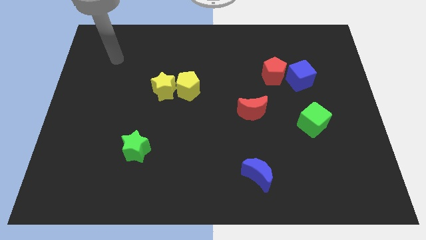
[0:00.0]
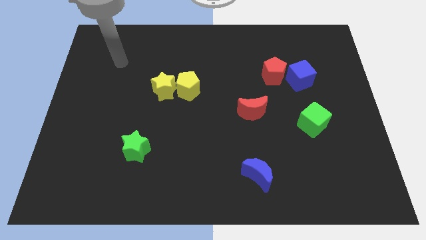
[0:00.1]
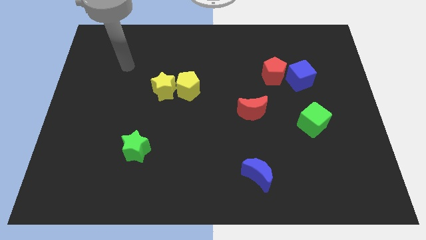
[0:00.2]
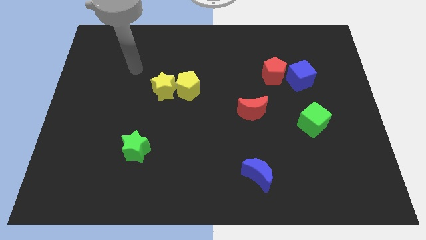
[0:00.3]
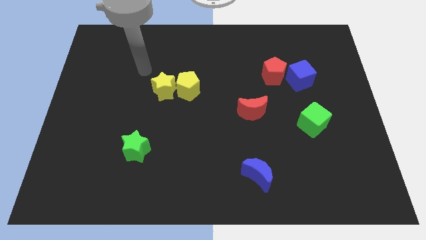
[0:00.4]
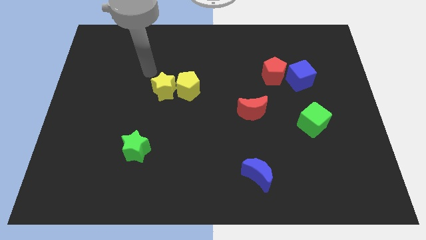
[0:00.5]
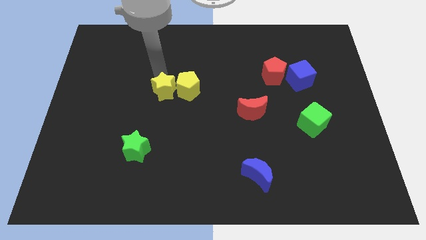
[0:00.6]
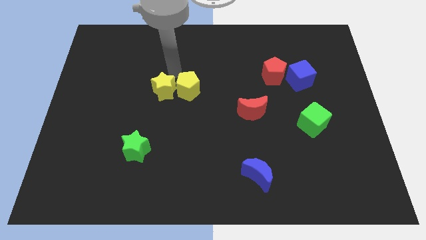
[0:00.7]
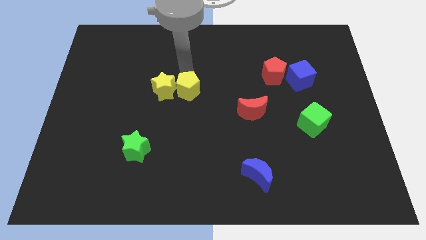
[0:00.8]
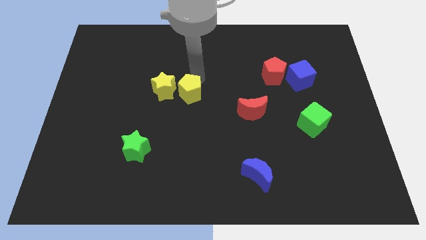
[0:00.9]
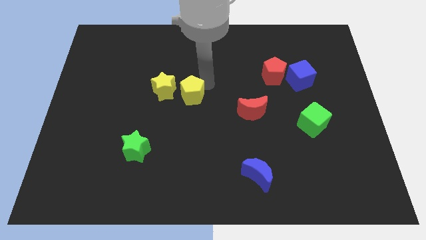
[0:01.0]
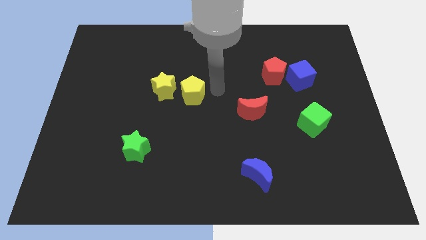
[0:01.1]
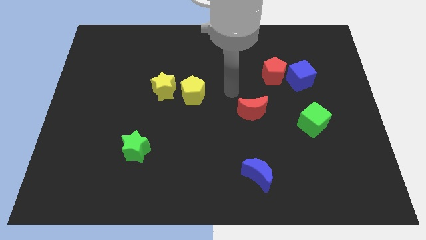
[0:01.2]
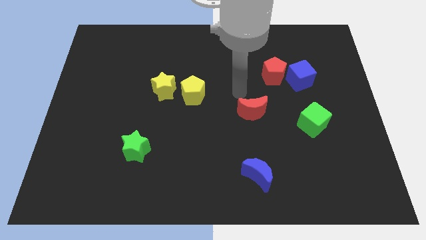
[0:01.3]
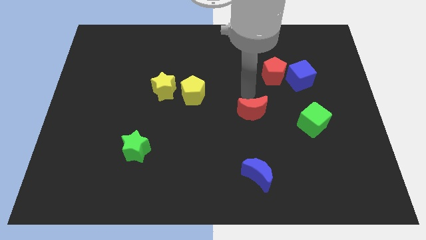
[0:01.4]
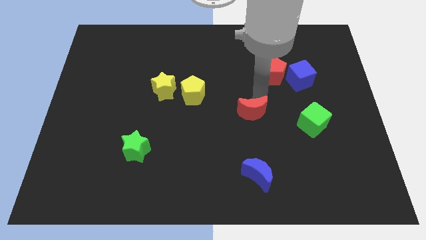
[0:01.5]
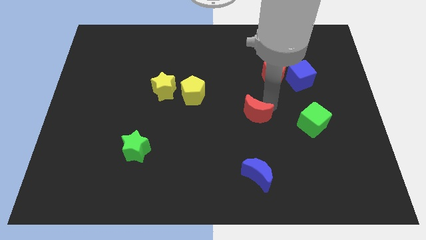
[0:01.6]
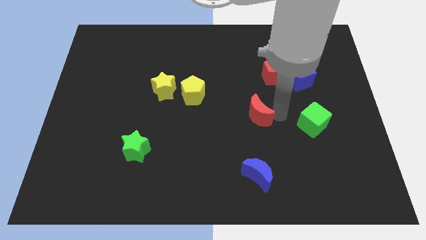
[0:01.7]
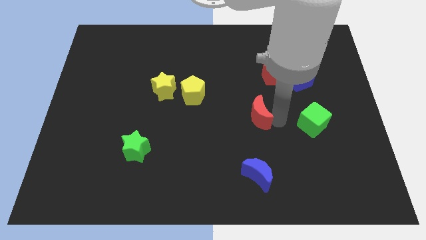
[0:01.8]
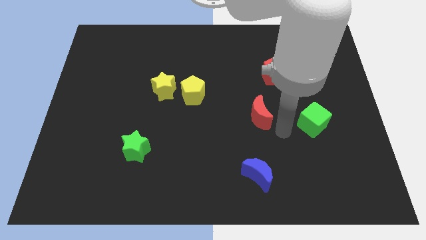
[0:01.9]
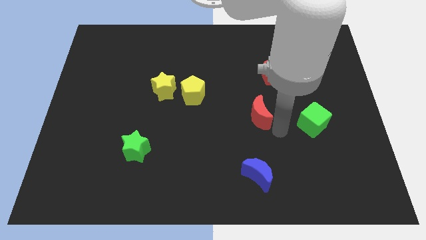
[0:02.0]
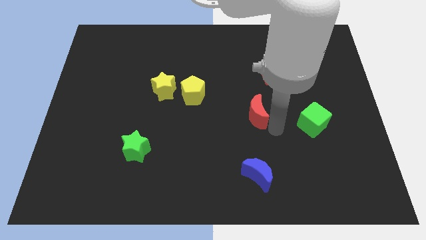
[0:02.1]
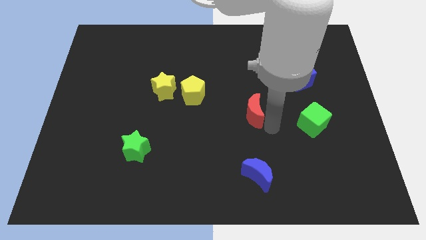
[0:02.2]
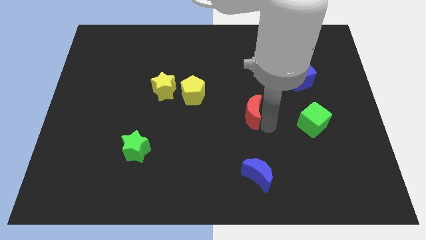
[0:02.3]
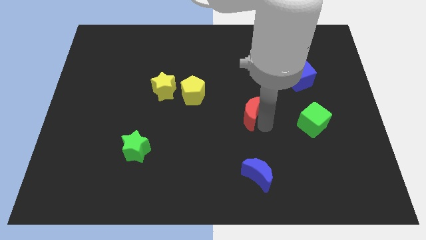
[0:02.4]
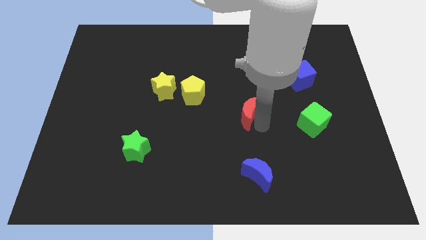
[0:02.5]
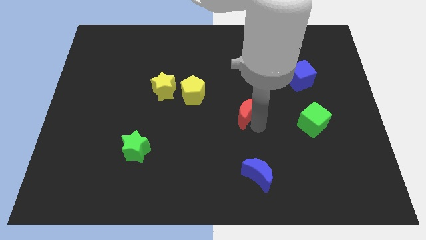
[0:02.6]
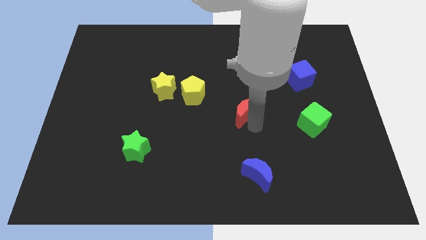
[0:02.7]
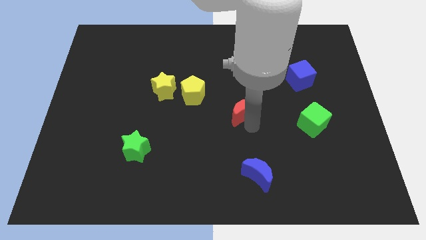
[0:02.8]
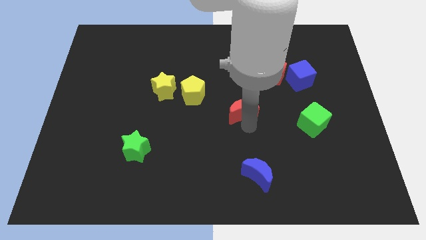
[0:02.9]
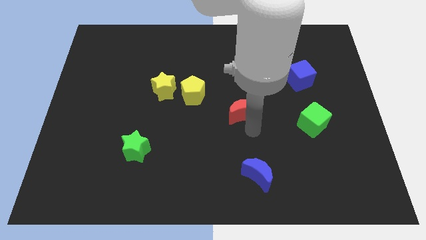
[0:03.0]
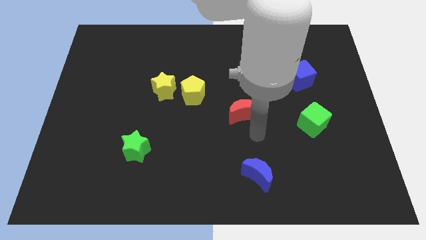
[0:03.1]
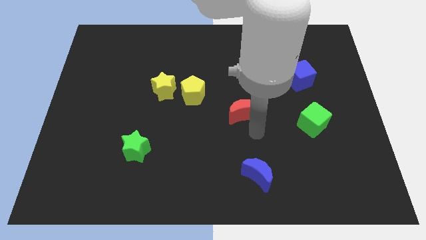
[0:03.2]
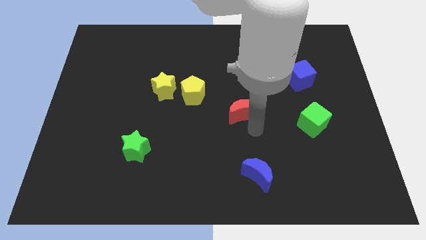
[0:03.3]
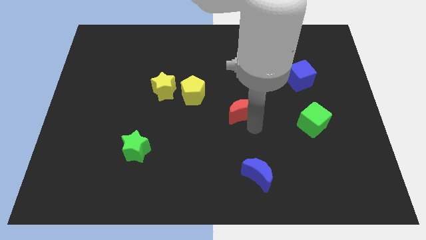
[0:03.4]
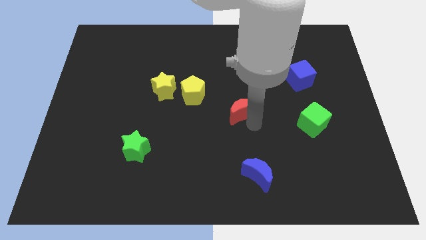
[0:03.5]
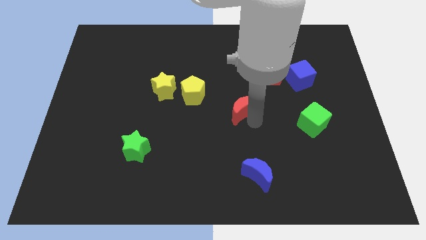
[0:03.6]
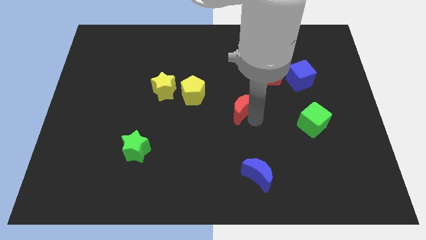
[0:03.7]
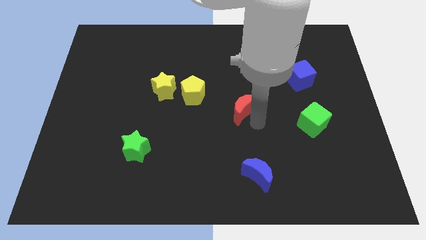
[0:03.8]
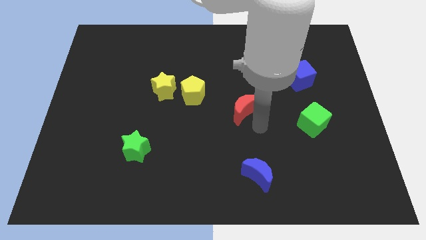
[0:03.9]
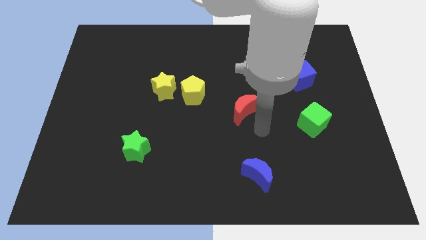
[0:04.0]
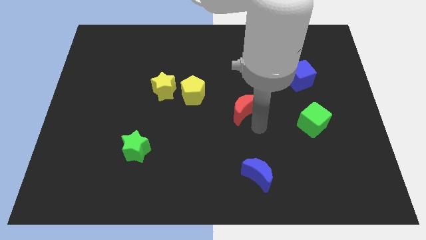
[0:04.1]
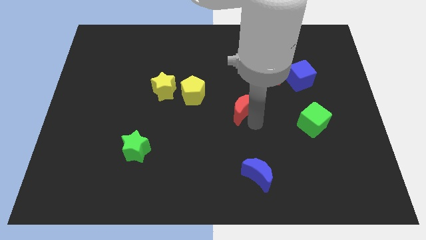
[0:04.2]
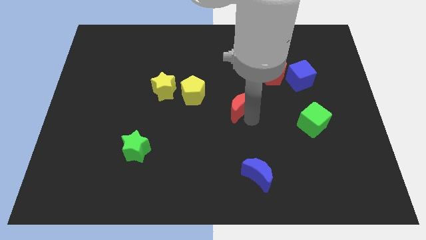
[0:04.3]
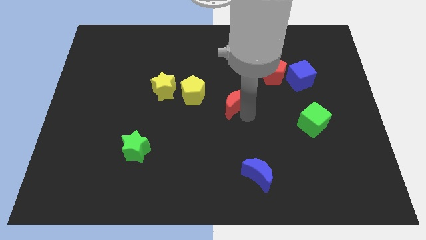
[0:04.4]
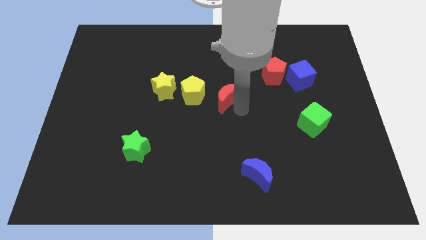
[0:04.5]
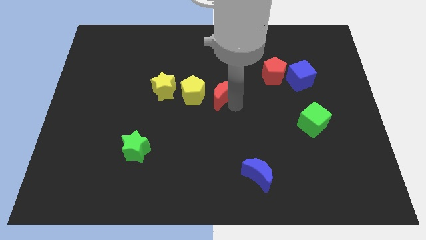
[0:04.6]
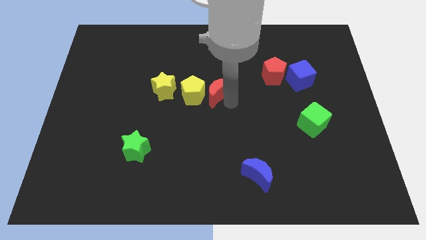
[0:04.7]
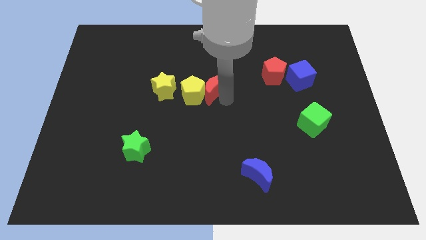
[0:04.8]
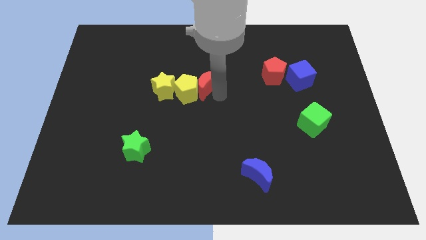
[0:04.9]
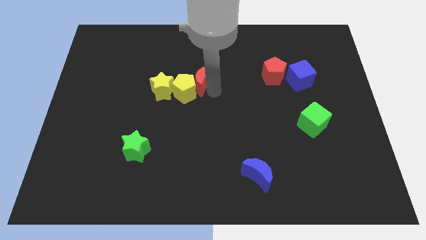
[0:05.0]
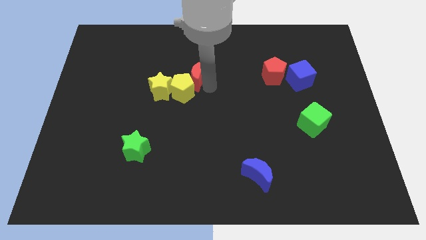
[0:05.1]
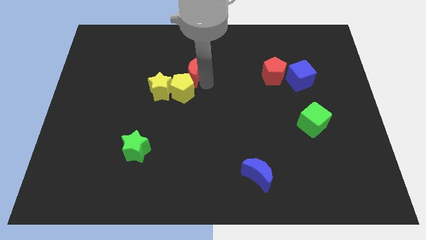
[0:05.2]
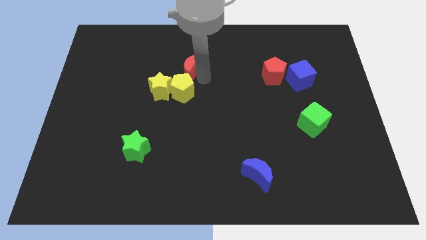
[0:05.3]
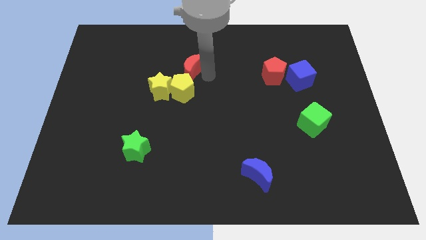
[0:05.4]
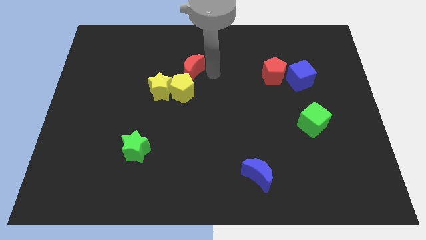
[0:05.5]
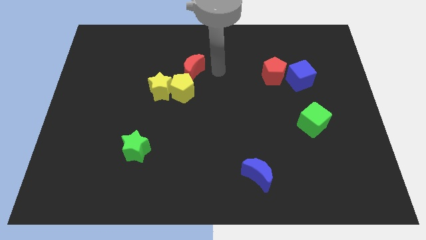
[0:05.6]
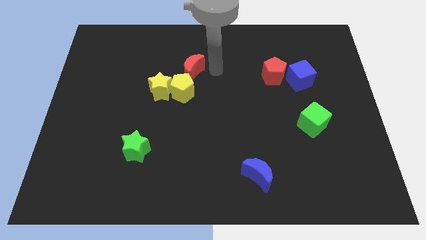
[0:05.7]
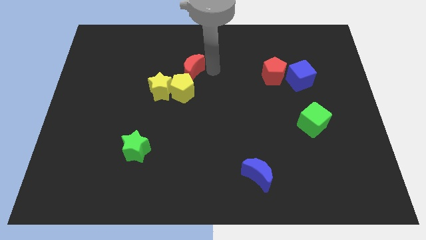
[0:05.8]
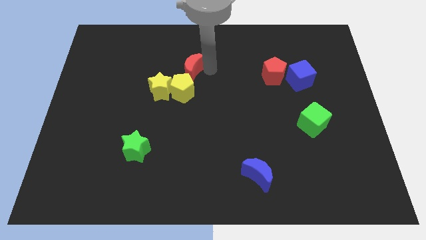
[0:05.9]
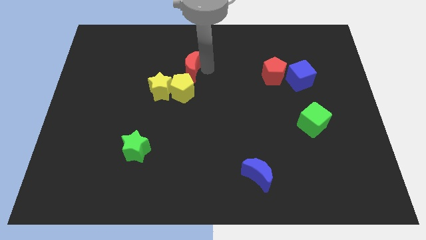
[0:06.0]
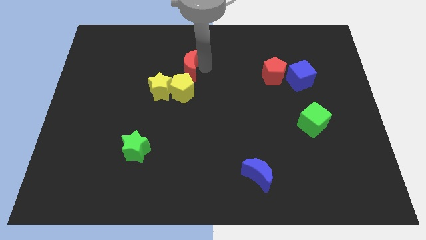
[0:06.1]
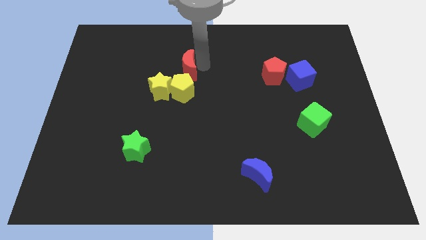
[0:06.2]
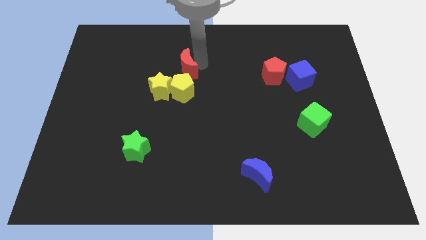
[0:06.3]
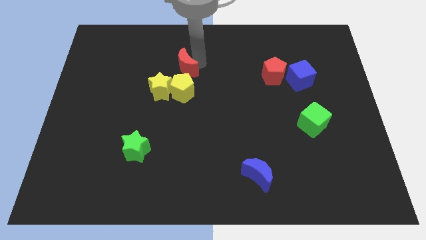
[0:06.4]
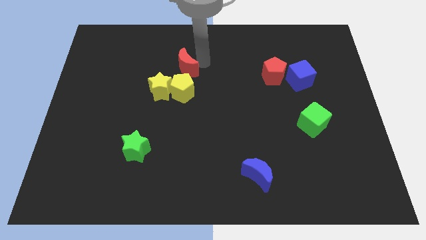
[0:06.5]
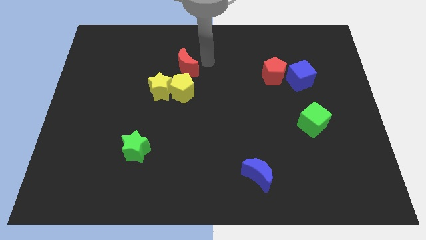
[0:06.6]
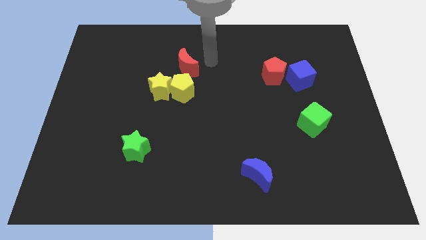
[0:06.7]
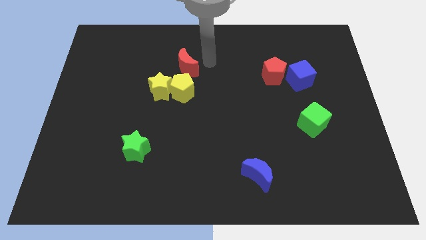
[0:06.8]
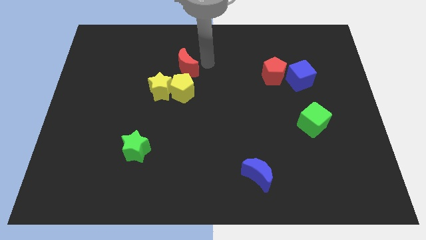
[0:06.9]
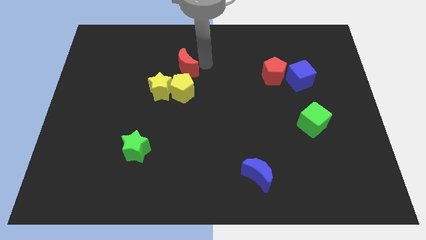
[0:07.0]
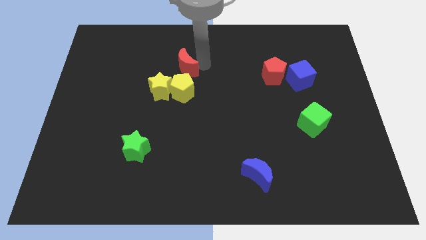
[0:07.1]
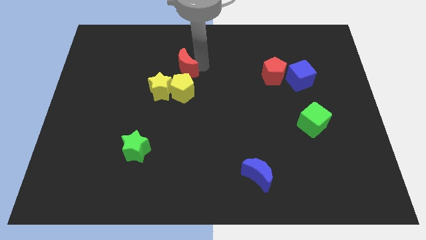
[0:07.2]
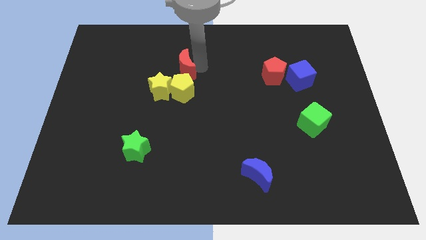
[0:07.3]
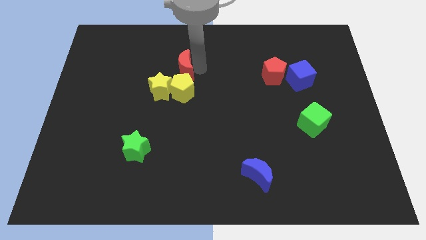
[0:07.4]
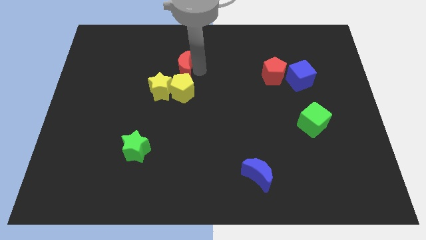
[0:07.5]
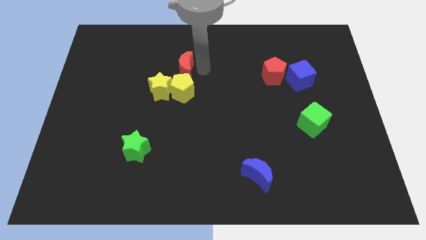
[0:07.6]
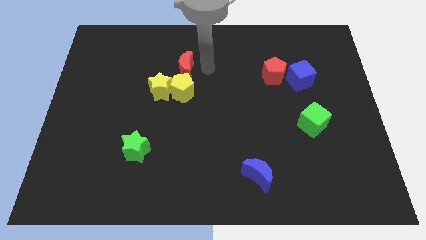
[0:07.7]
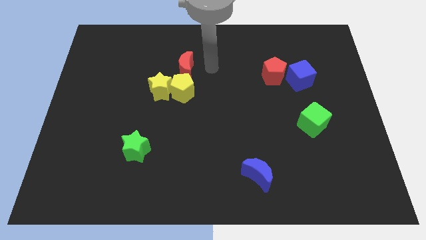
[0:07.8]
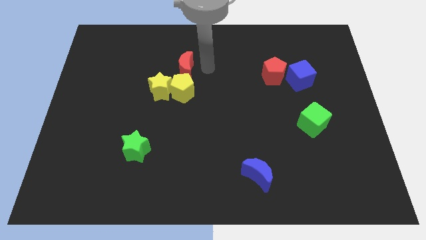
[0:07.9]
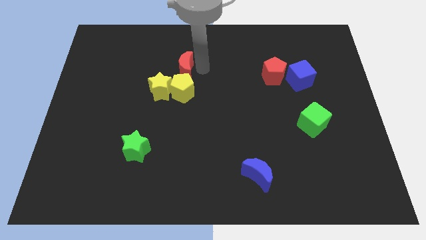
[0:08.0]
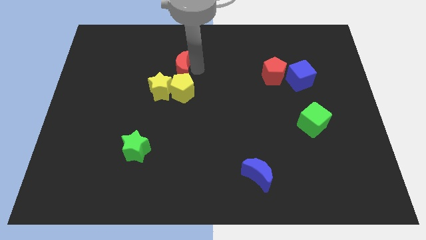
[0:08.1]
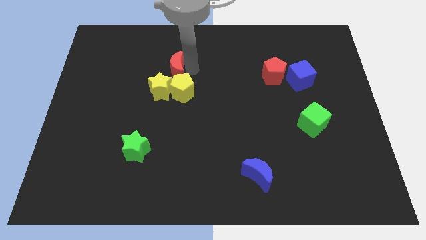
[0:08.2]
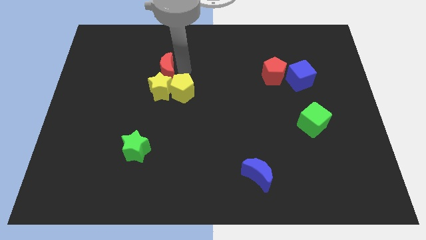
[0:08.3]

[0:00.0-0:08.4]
move the red moon to the top left side of the yellow star
